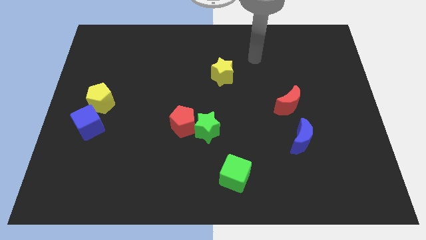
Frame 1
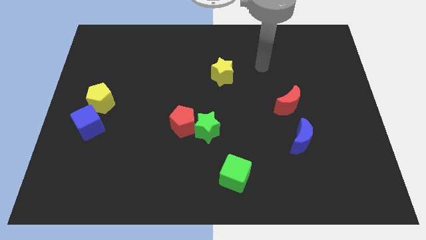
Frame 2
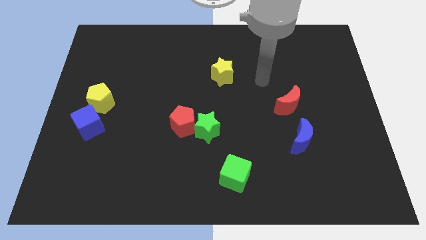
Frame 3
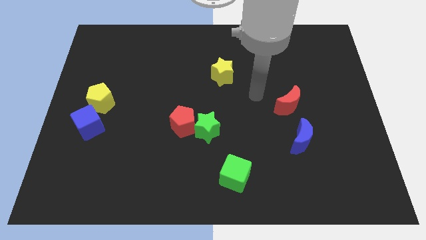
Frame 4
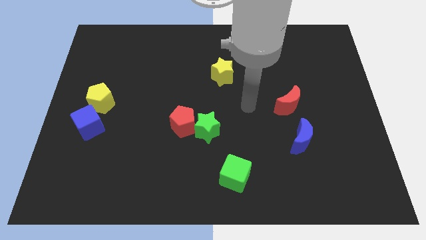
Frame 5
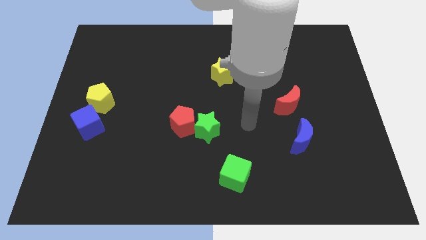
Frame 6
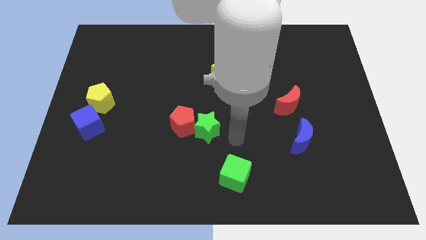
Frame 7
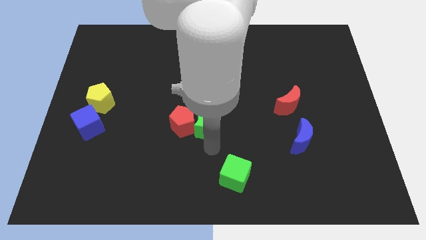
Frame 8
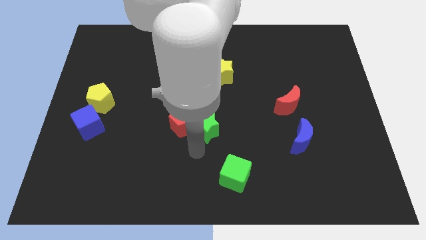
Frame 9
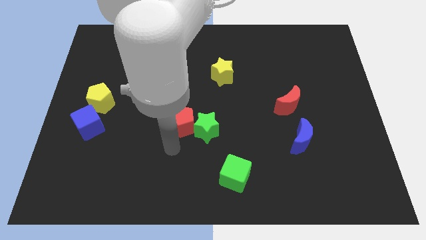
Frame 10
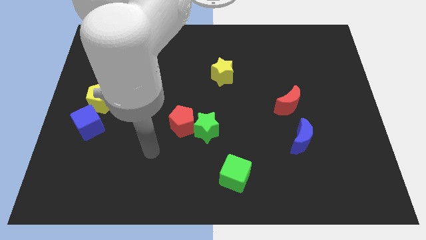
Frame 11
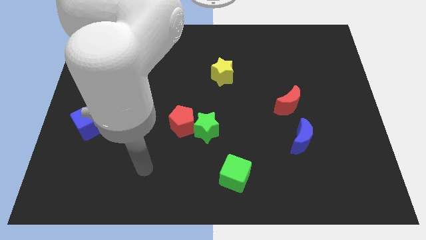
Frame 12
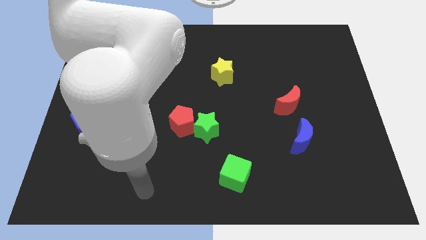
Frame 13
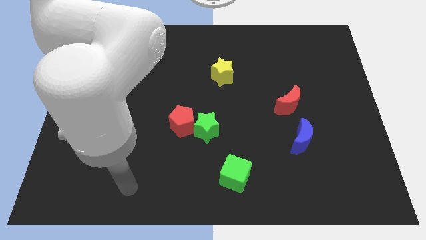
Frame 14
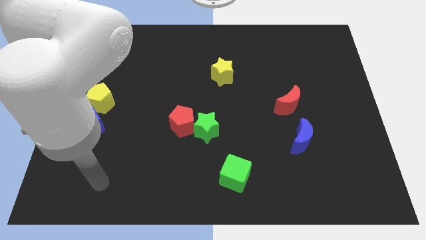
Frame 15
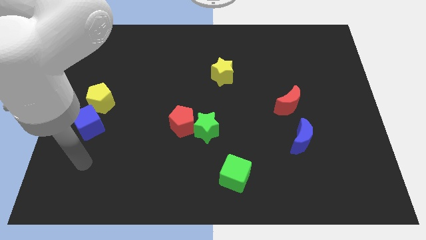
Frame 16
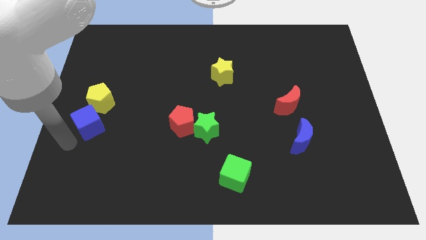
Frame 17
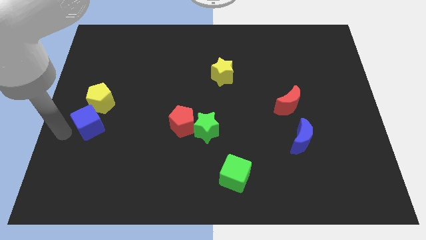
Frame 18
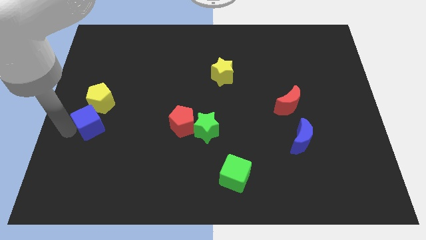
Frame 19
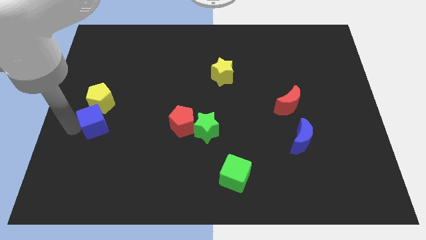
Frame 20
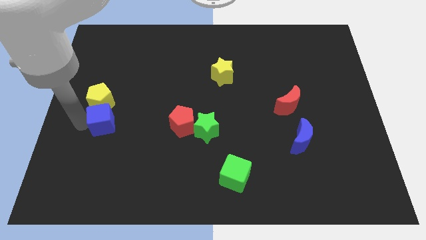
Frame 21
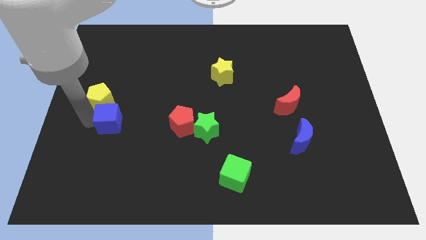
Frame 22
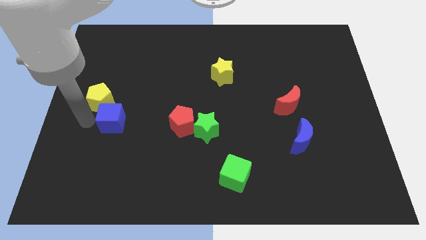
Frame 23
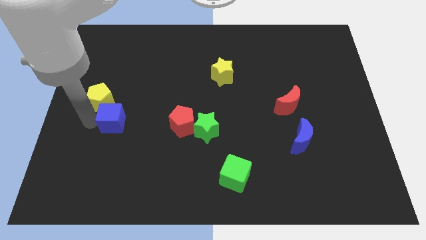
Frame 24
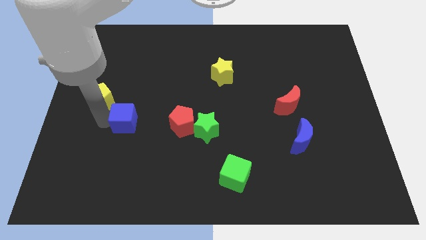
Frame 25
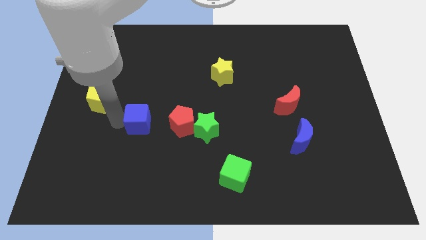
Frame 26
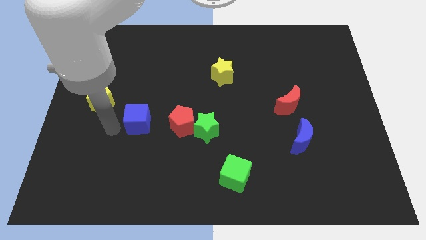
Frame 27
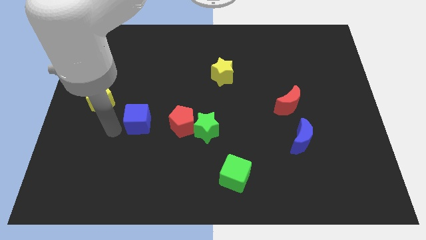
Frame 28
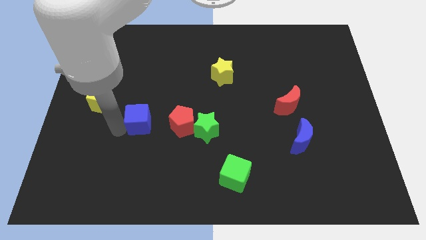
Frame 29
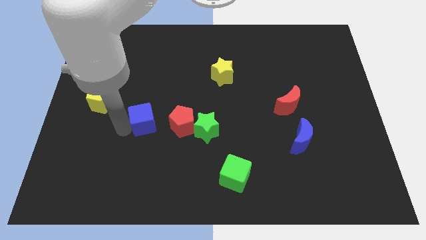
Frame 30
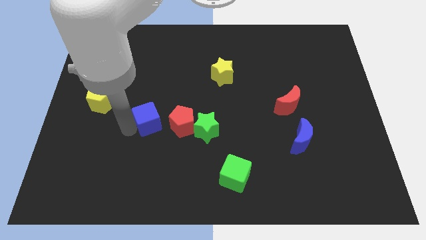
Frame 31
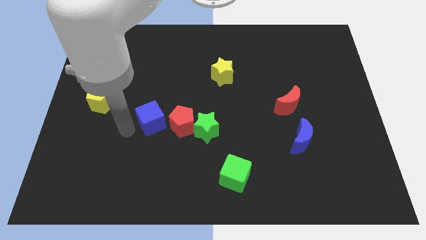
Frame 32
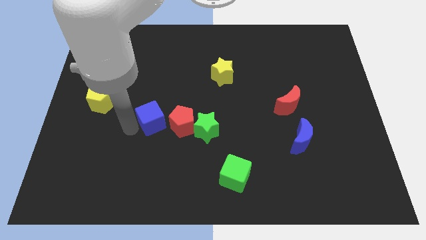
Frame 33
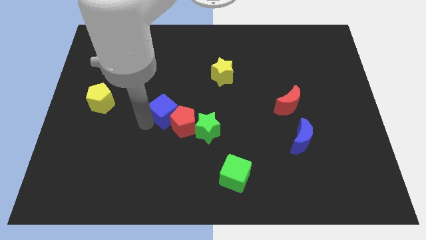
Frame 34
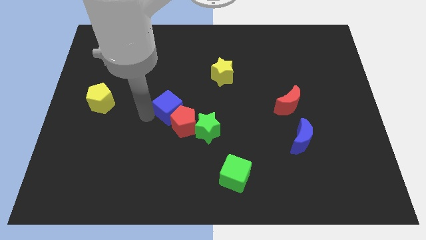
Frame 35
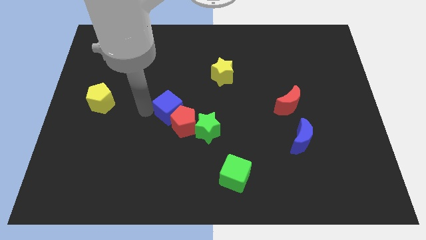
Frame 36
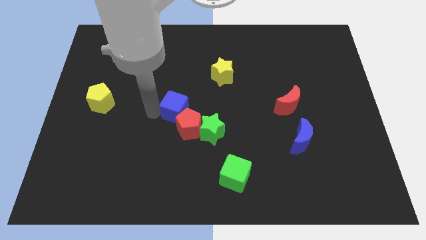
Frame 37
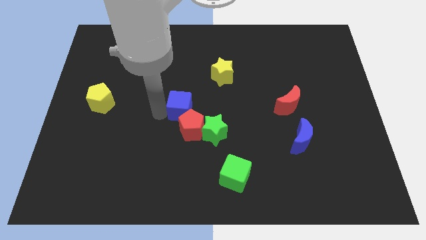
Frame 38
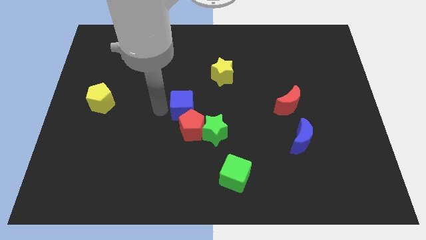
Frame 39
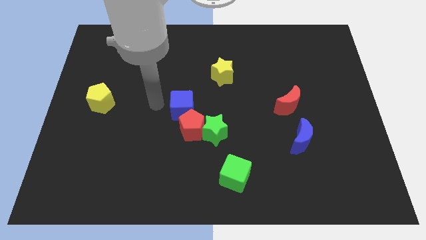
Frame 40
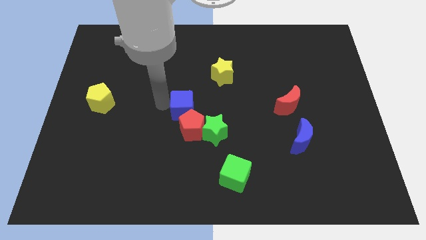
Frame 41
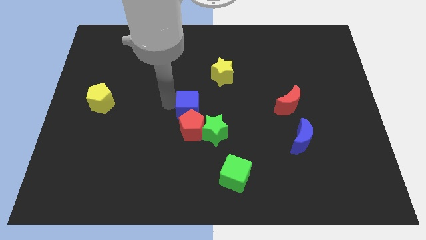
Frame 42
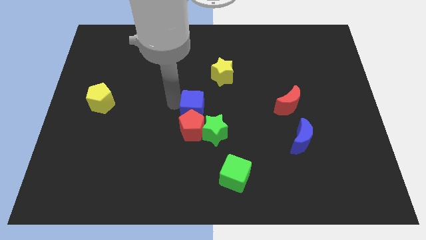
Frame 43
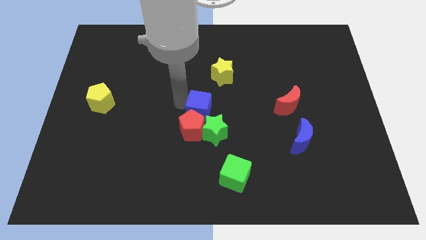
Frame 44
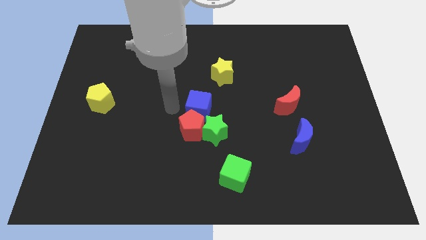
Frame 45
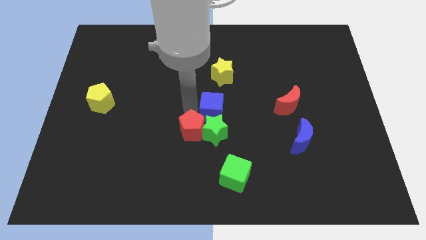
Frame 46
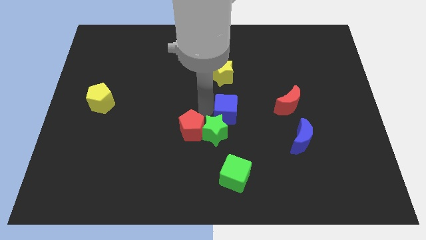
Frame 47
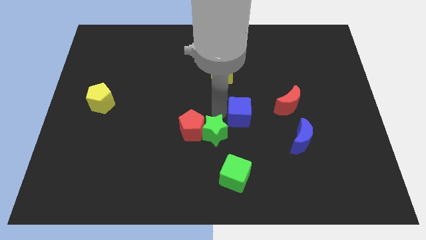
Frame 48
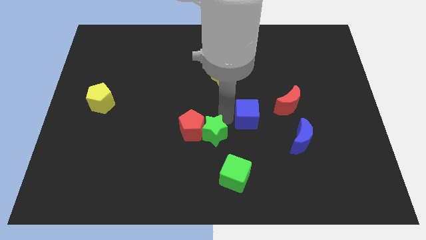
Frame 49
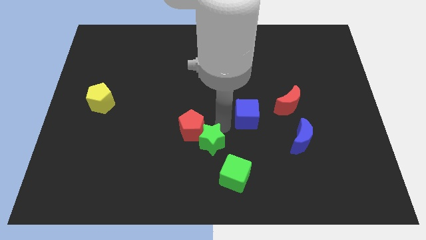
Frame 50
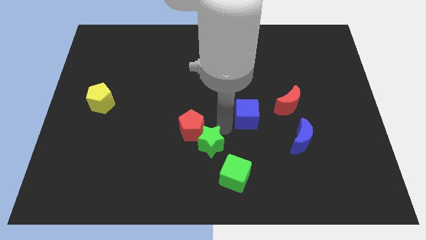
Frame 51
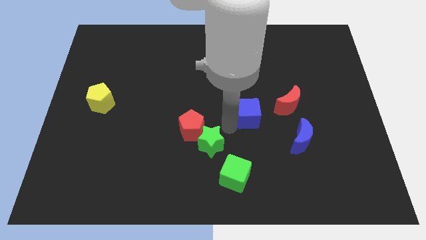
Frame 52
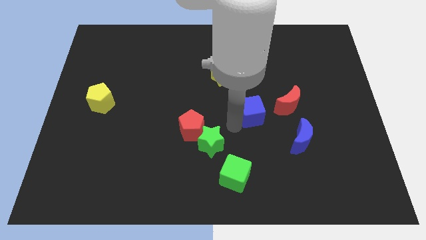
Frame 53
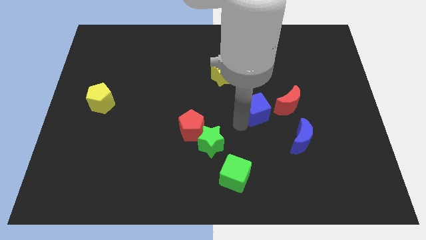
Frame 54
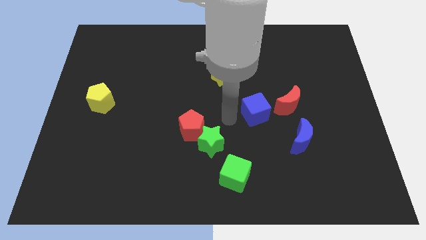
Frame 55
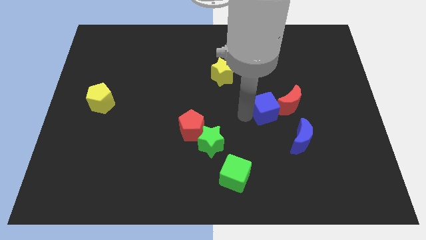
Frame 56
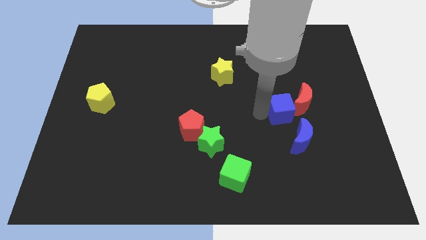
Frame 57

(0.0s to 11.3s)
move the blue cube towards the red moon

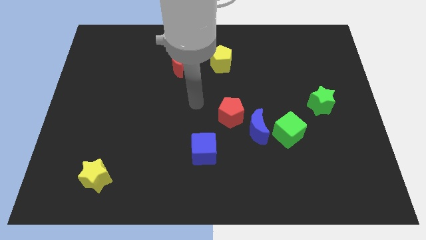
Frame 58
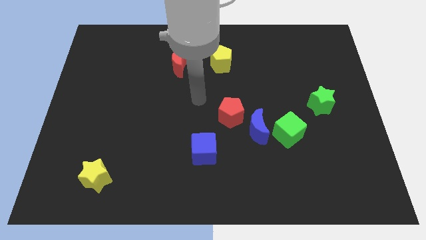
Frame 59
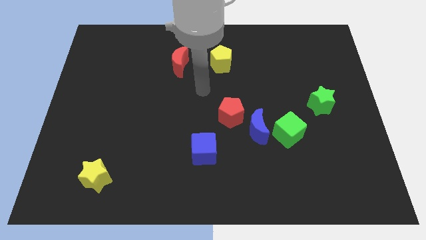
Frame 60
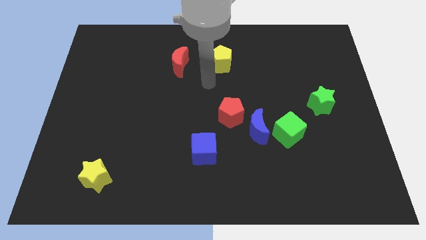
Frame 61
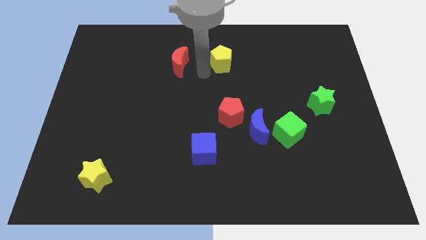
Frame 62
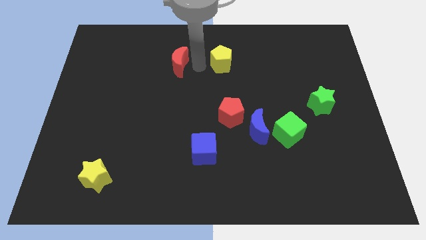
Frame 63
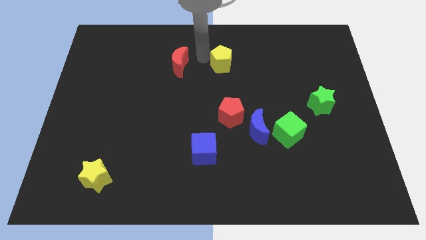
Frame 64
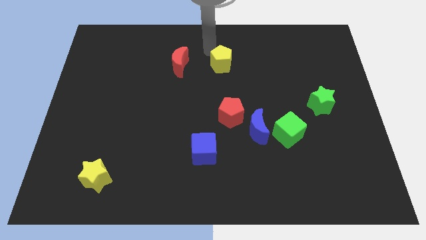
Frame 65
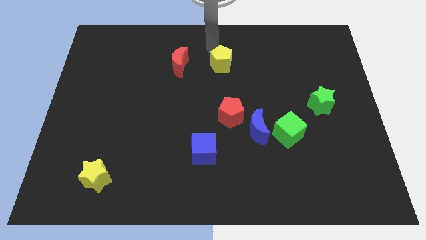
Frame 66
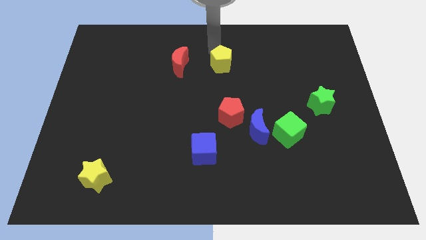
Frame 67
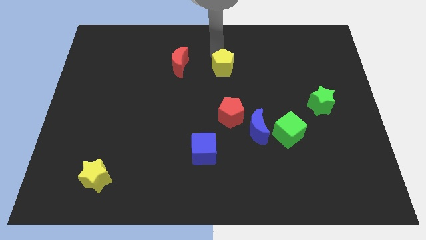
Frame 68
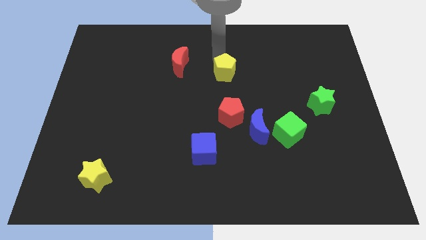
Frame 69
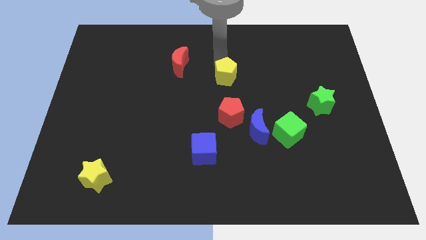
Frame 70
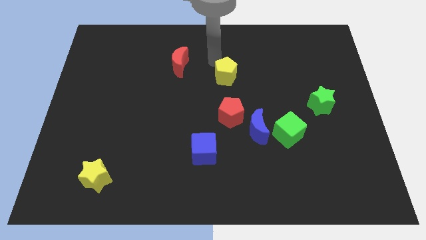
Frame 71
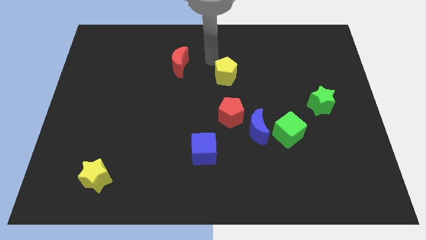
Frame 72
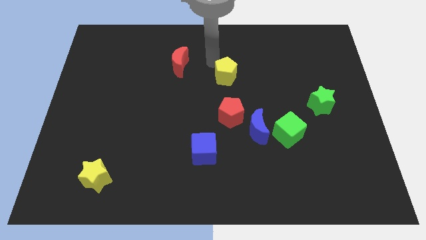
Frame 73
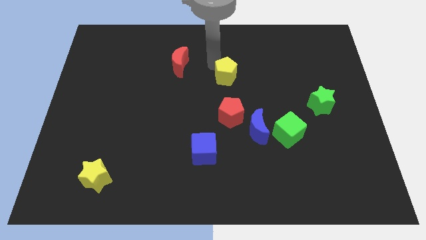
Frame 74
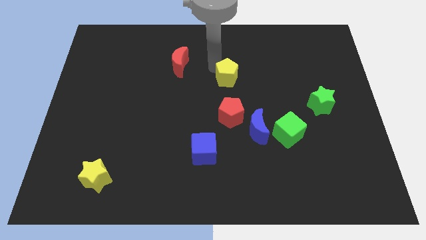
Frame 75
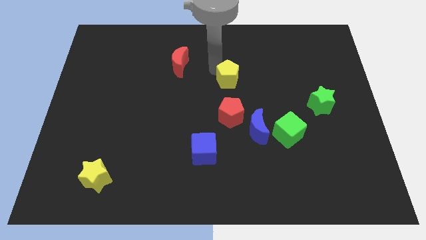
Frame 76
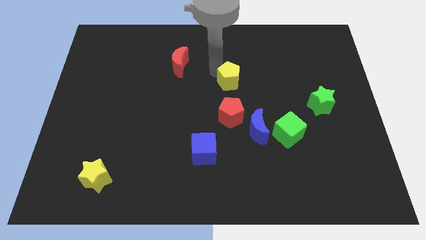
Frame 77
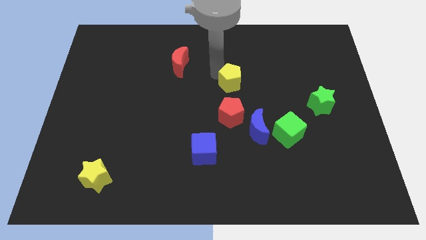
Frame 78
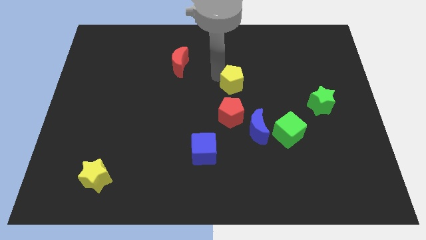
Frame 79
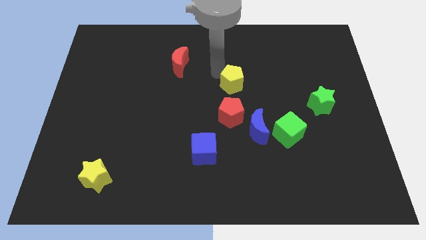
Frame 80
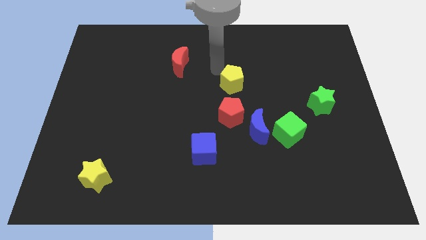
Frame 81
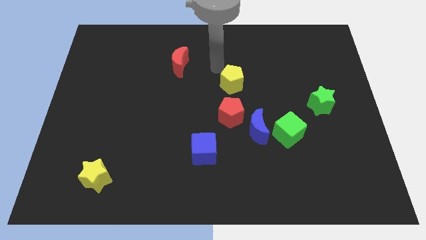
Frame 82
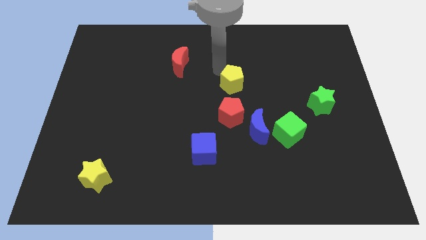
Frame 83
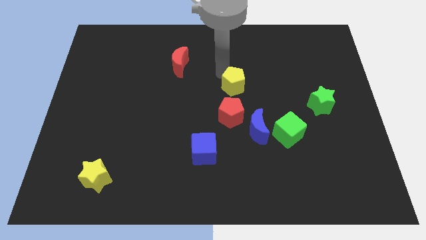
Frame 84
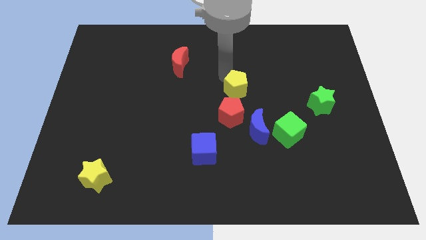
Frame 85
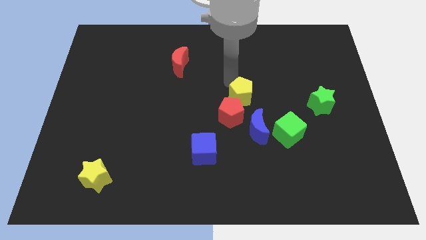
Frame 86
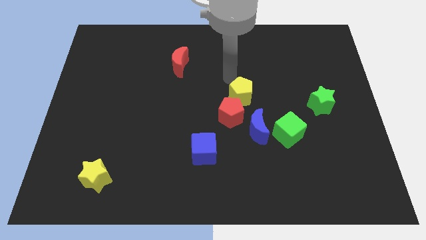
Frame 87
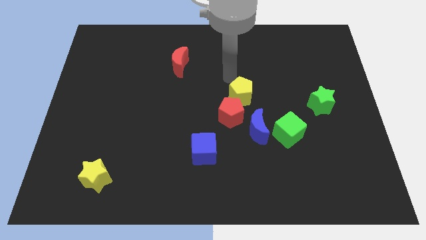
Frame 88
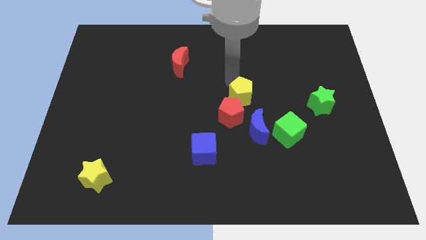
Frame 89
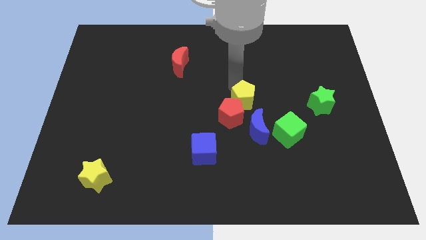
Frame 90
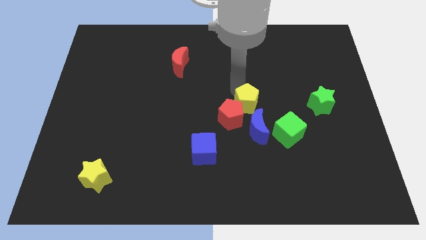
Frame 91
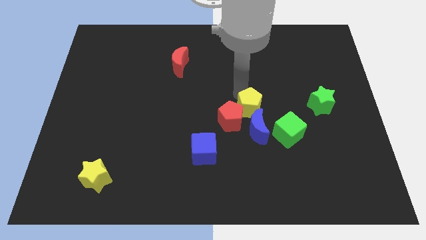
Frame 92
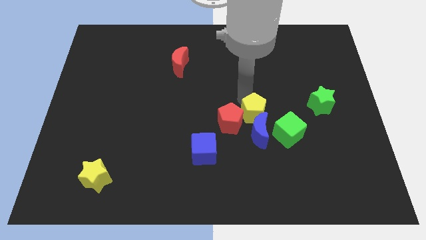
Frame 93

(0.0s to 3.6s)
push the yellow pentagon next to the blue moon
